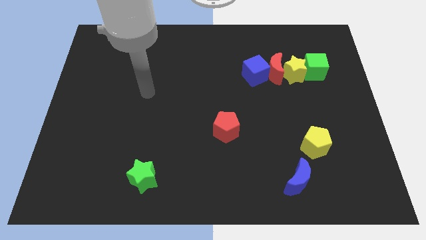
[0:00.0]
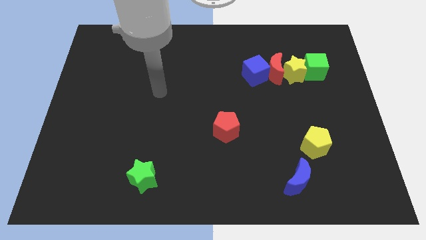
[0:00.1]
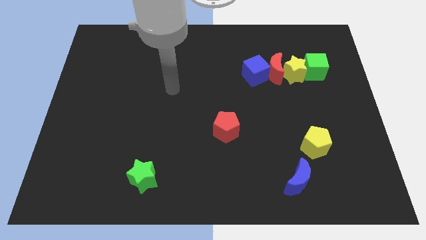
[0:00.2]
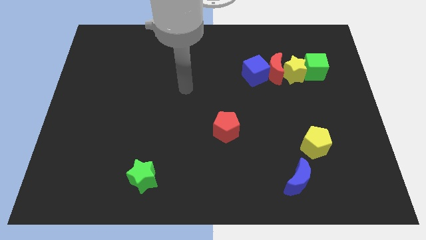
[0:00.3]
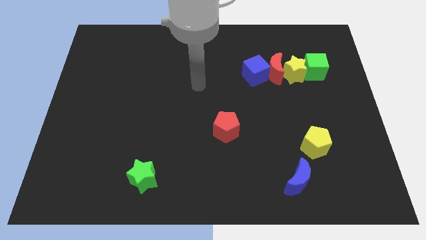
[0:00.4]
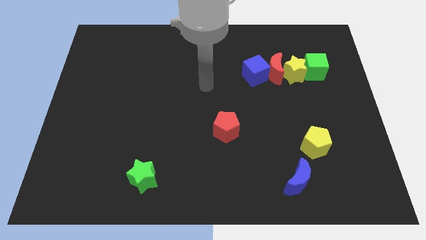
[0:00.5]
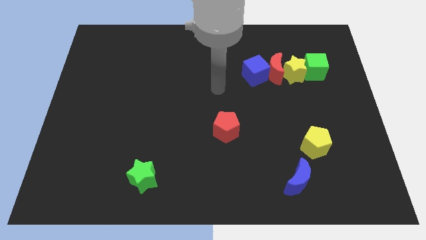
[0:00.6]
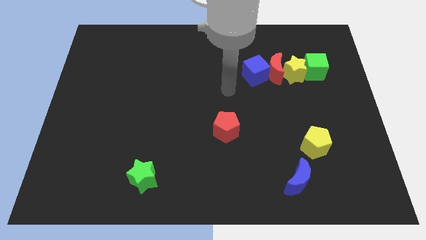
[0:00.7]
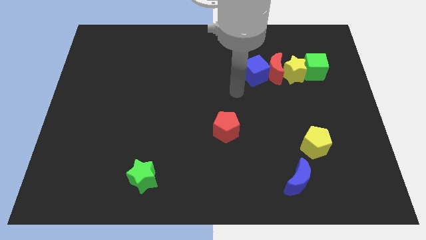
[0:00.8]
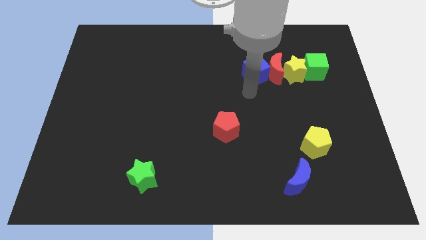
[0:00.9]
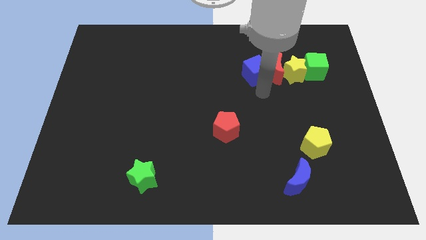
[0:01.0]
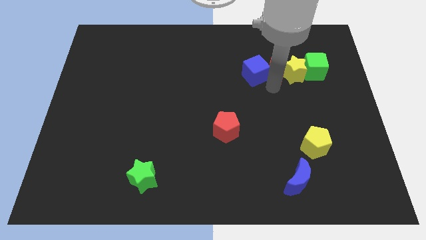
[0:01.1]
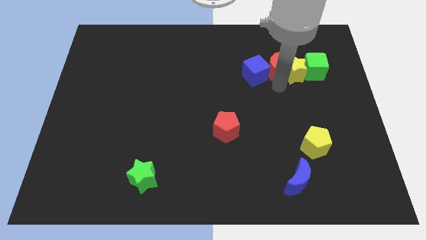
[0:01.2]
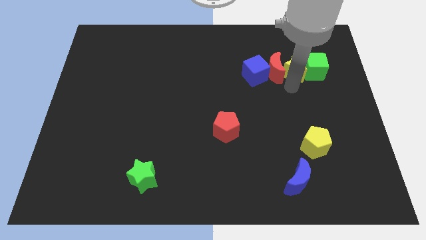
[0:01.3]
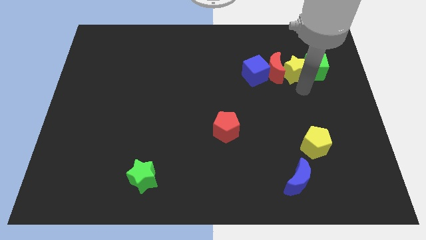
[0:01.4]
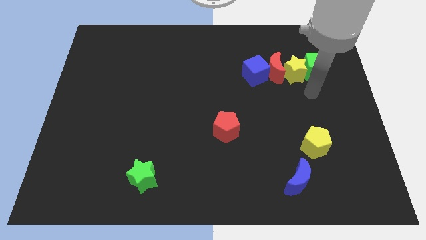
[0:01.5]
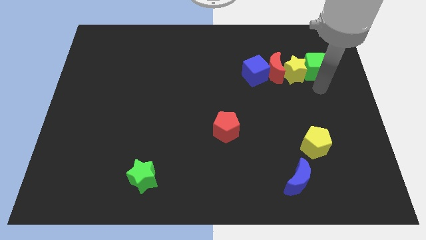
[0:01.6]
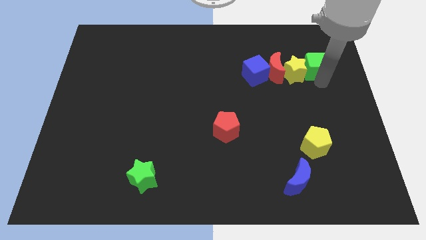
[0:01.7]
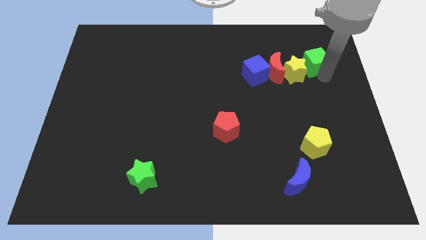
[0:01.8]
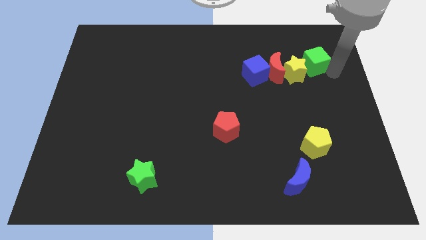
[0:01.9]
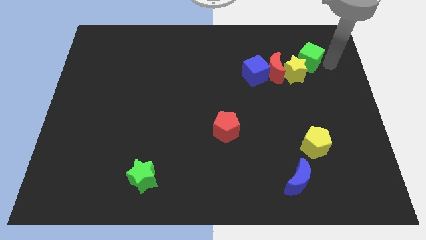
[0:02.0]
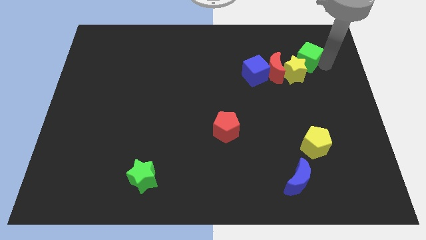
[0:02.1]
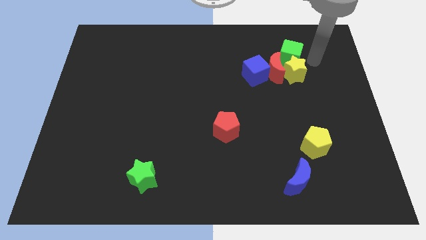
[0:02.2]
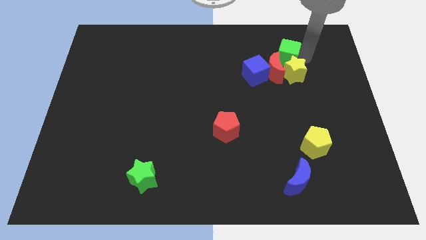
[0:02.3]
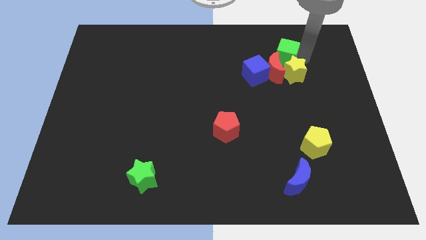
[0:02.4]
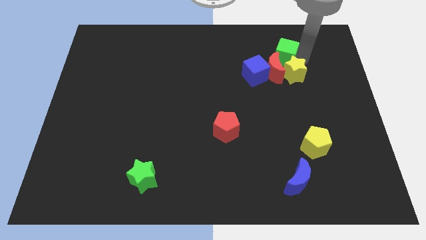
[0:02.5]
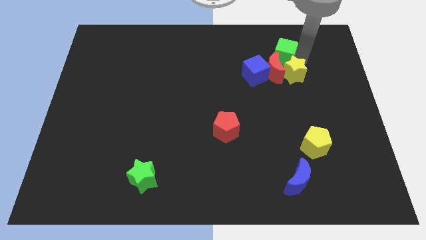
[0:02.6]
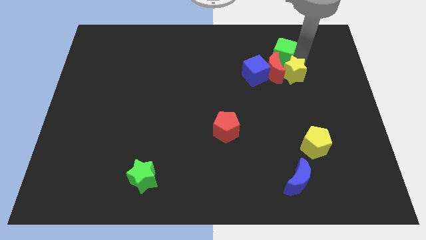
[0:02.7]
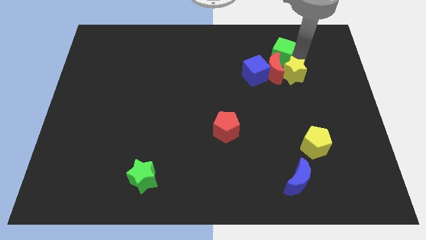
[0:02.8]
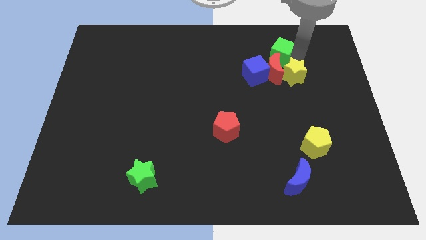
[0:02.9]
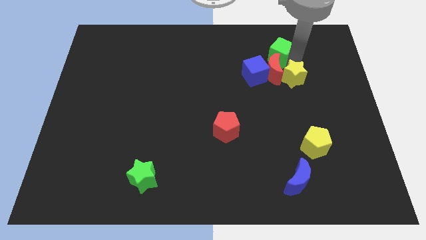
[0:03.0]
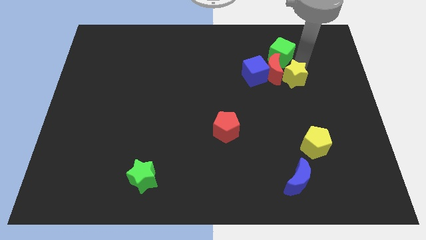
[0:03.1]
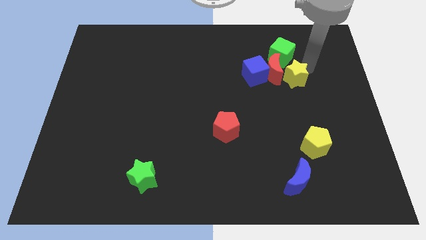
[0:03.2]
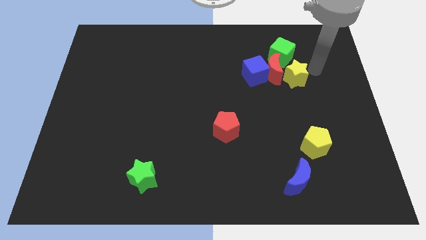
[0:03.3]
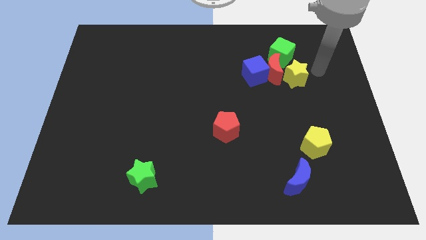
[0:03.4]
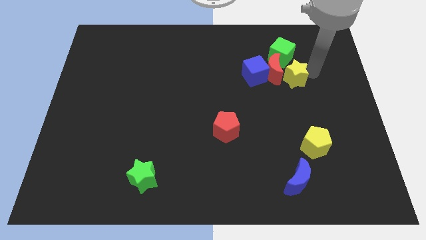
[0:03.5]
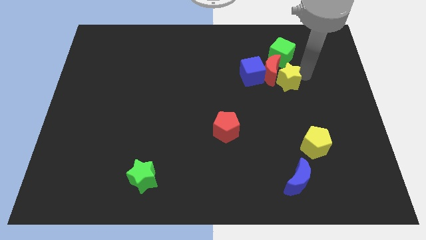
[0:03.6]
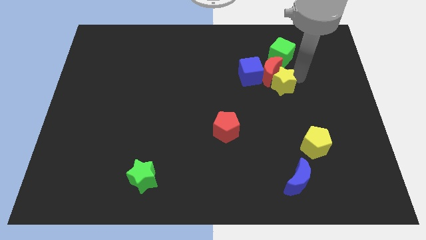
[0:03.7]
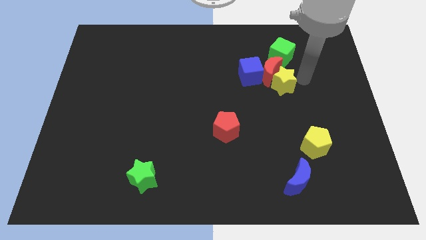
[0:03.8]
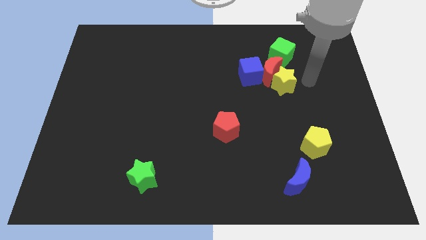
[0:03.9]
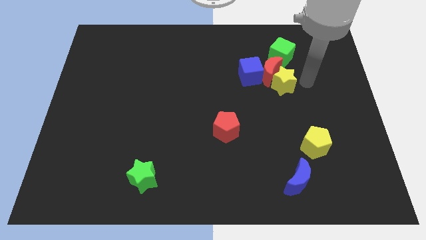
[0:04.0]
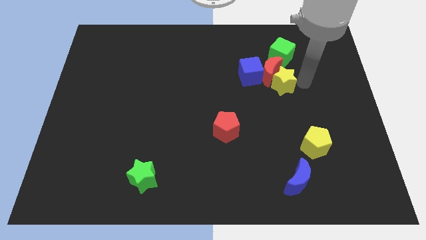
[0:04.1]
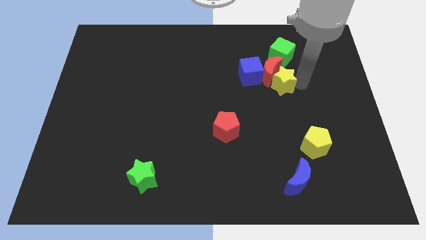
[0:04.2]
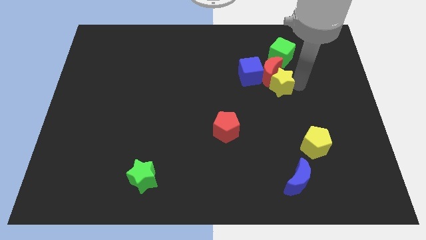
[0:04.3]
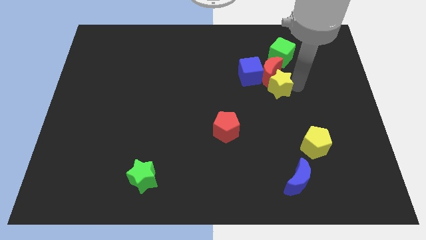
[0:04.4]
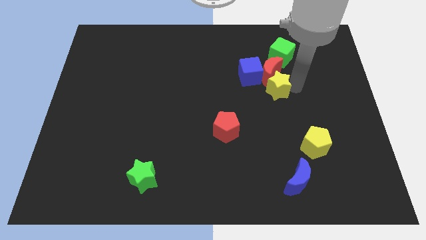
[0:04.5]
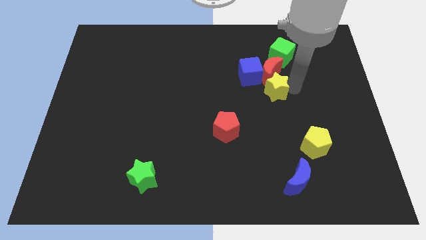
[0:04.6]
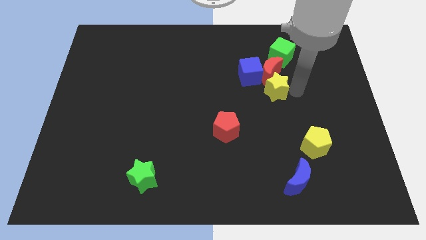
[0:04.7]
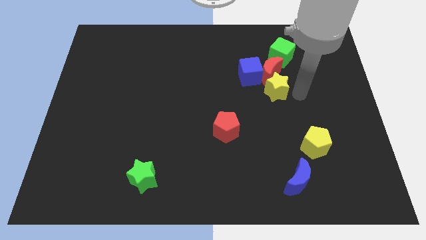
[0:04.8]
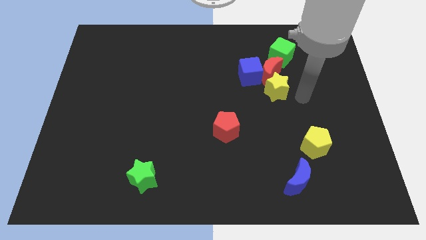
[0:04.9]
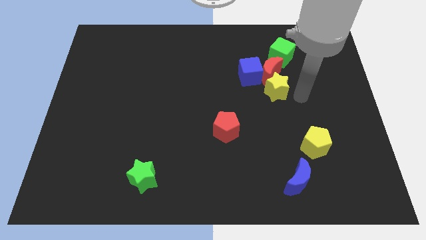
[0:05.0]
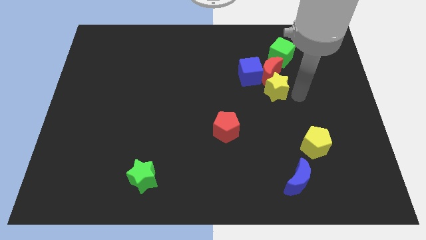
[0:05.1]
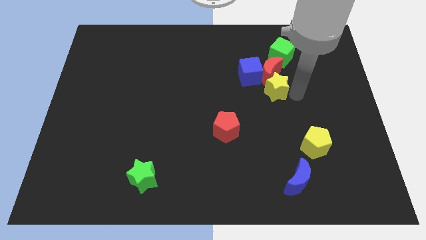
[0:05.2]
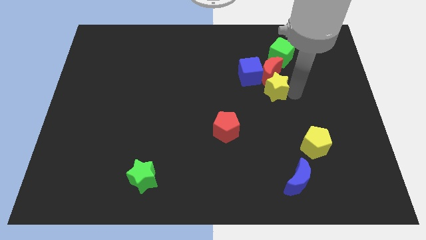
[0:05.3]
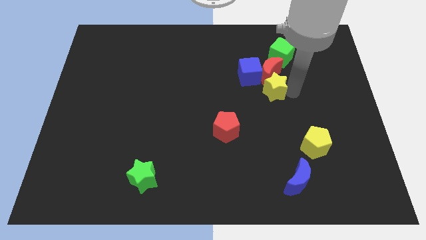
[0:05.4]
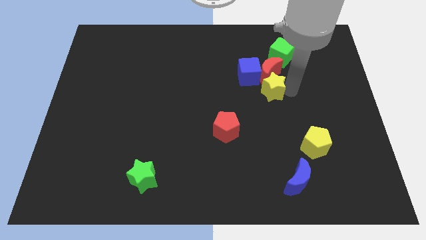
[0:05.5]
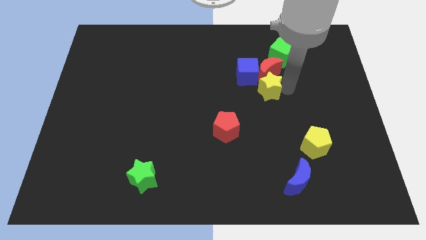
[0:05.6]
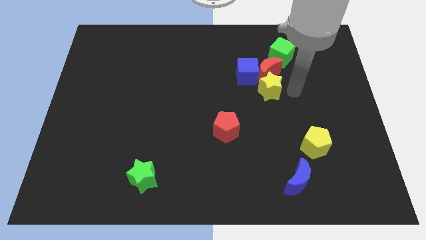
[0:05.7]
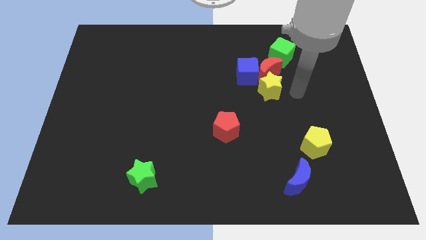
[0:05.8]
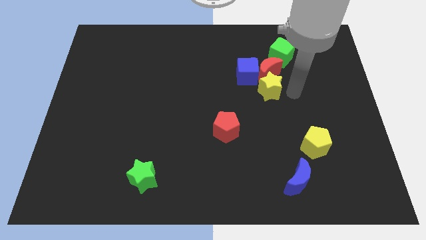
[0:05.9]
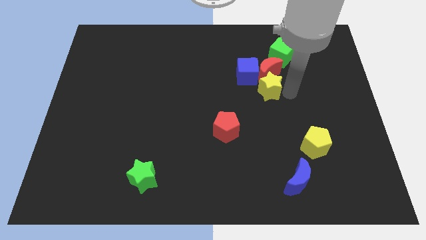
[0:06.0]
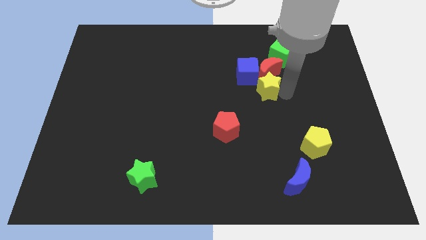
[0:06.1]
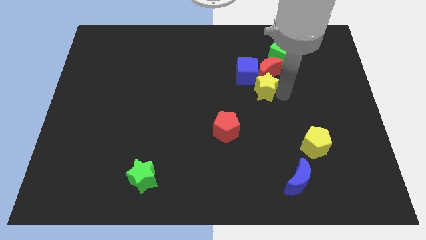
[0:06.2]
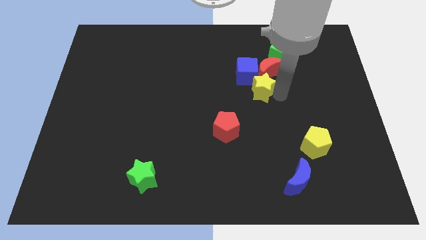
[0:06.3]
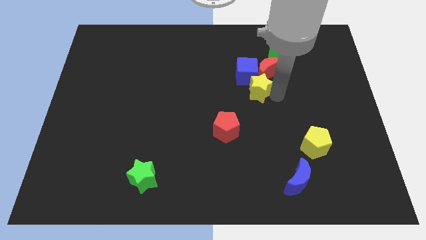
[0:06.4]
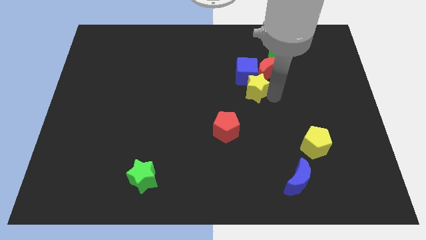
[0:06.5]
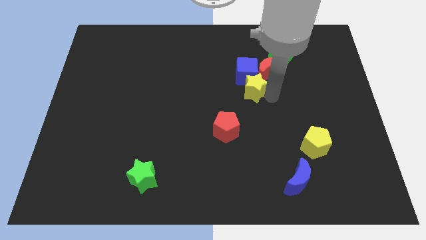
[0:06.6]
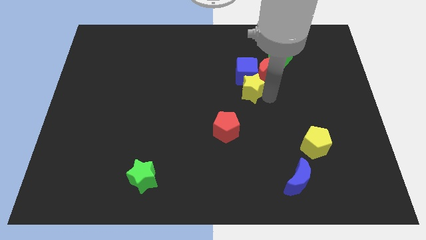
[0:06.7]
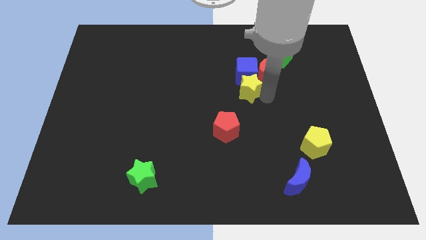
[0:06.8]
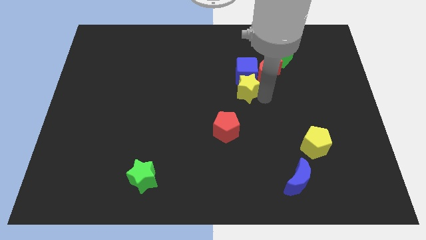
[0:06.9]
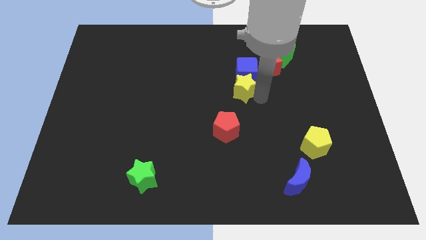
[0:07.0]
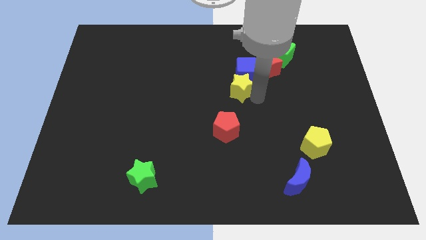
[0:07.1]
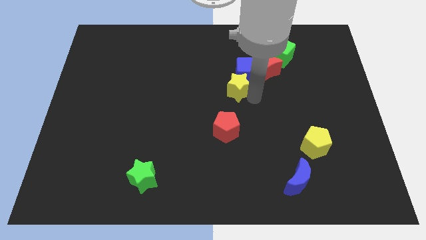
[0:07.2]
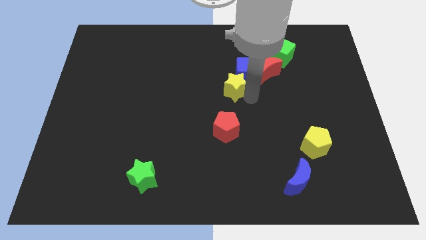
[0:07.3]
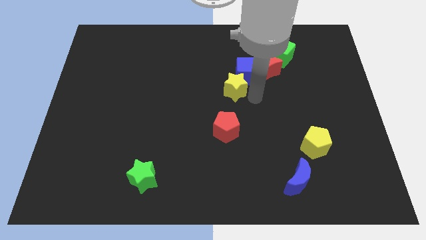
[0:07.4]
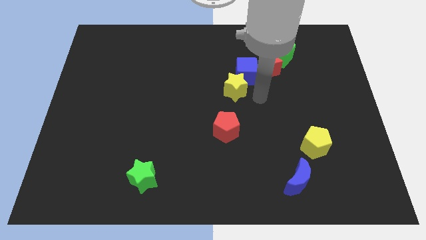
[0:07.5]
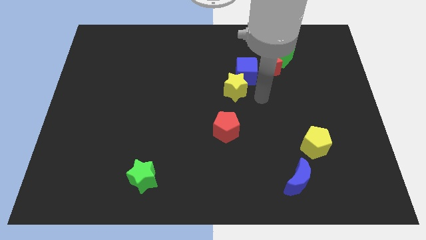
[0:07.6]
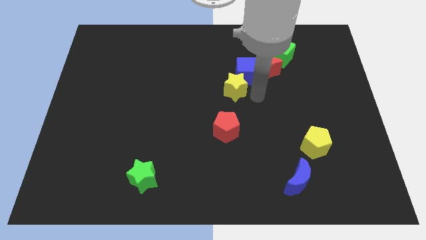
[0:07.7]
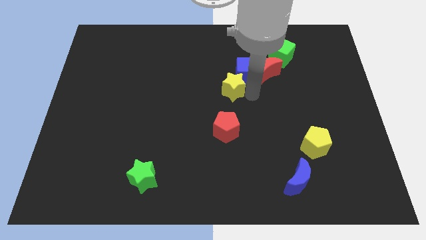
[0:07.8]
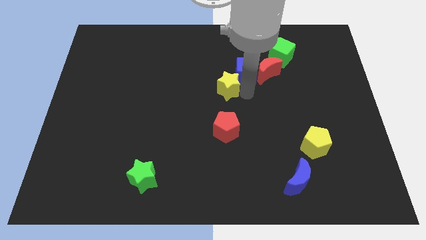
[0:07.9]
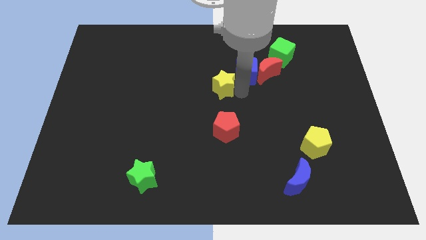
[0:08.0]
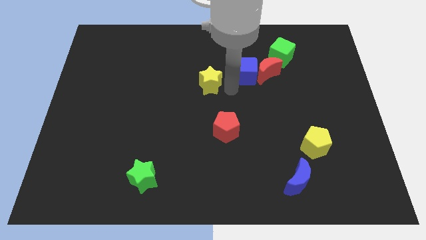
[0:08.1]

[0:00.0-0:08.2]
move the yellow star left

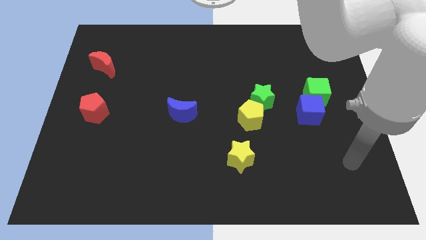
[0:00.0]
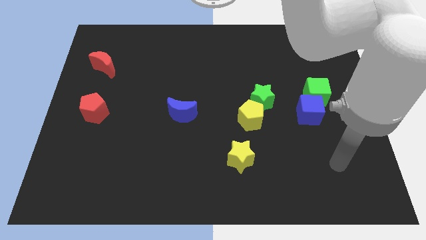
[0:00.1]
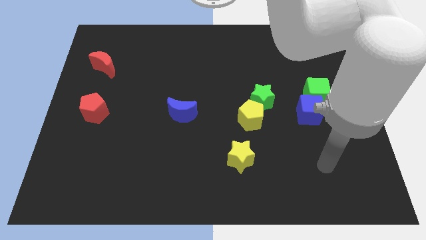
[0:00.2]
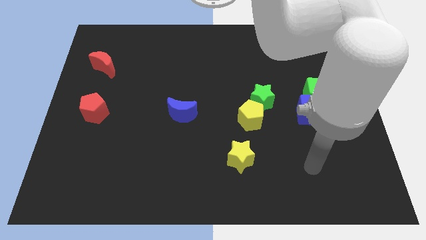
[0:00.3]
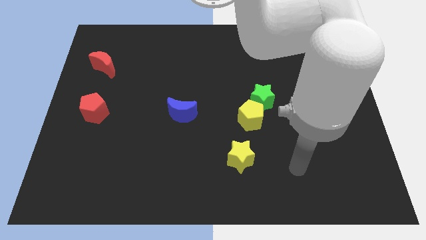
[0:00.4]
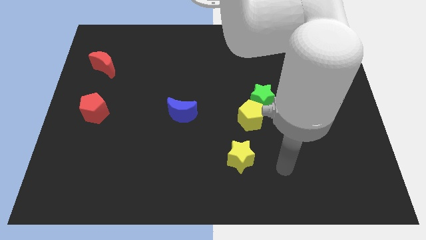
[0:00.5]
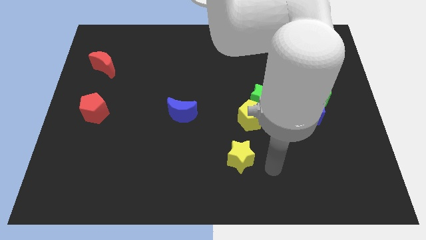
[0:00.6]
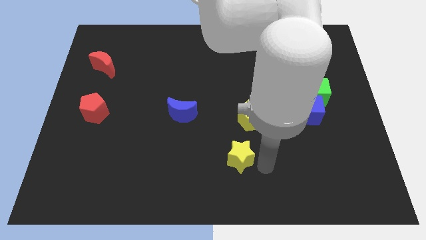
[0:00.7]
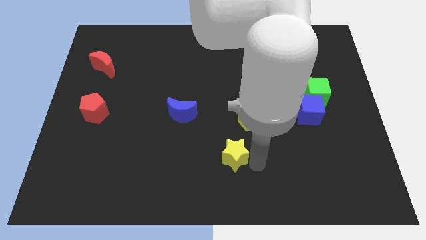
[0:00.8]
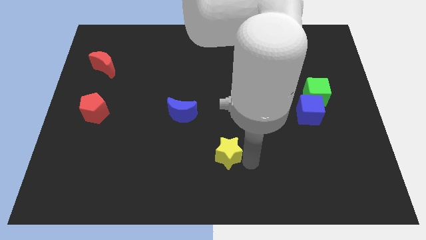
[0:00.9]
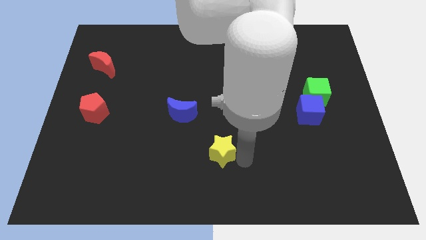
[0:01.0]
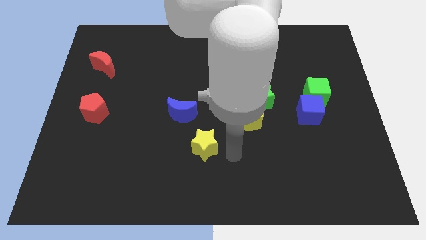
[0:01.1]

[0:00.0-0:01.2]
slightly push the yellow star to the left
